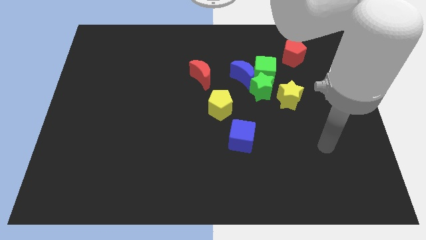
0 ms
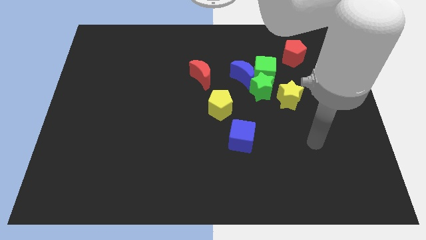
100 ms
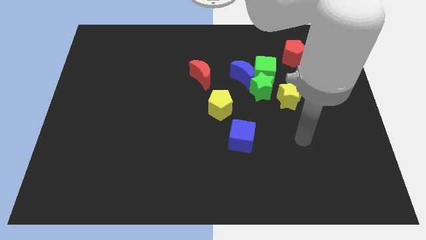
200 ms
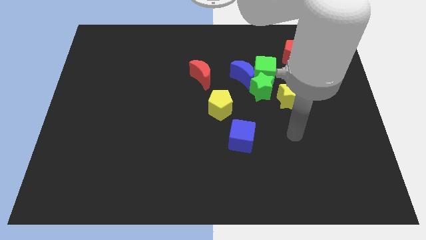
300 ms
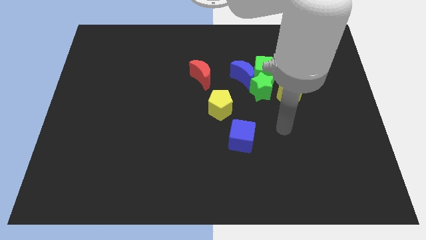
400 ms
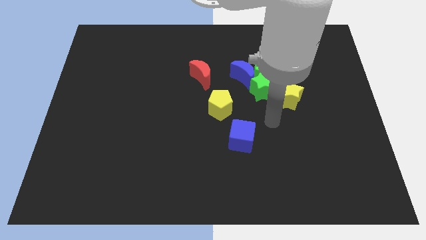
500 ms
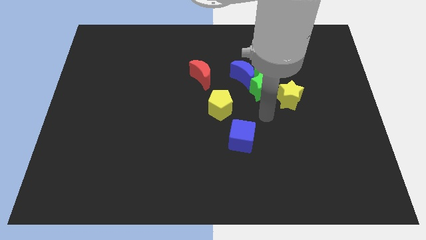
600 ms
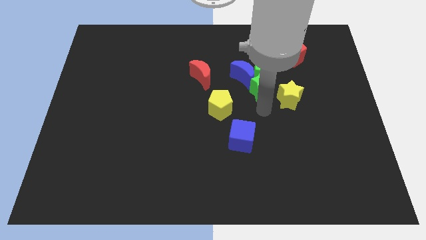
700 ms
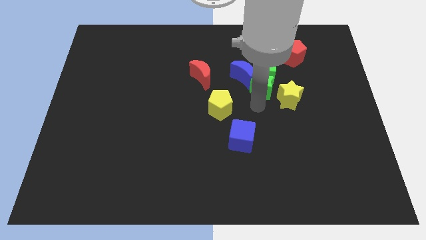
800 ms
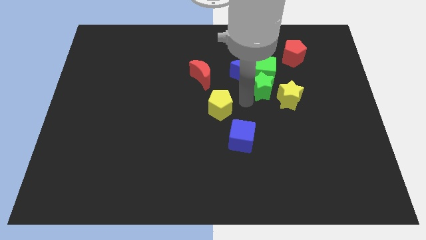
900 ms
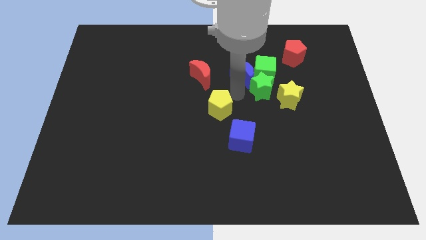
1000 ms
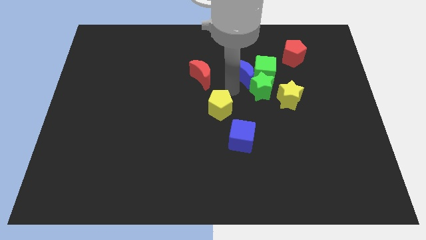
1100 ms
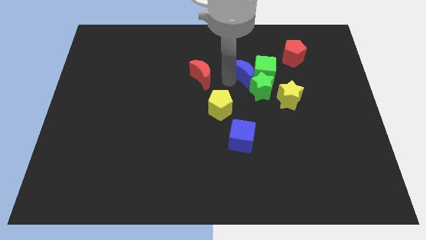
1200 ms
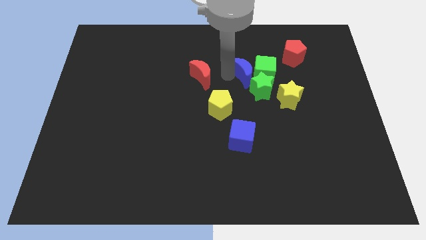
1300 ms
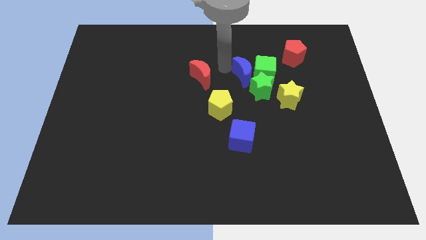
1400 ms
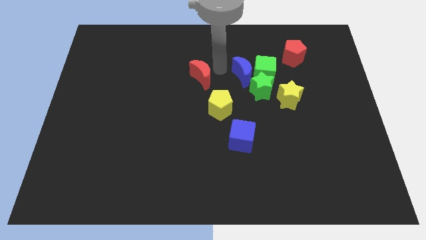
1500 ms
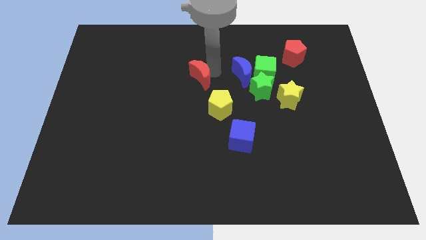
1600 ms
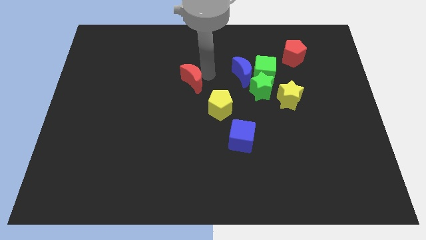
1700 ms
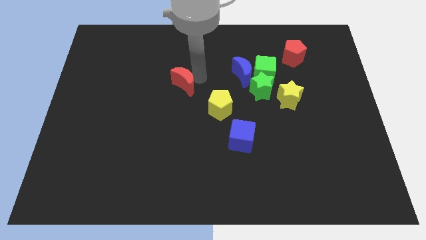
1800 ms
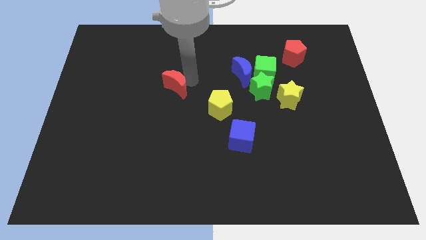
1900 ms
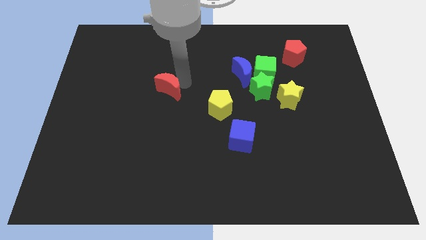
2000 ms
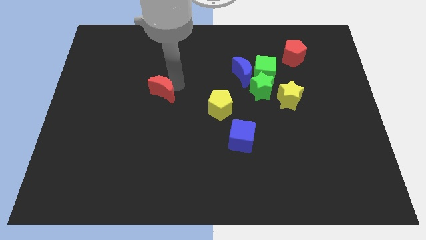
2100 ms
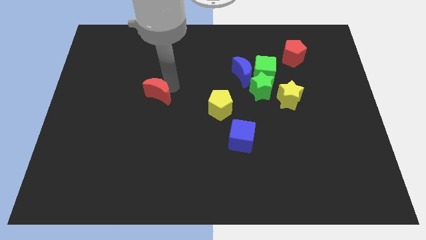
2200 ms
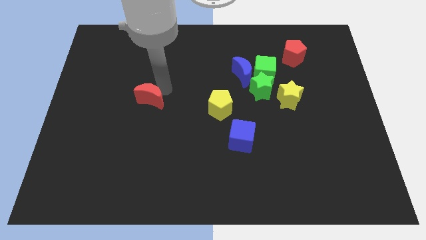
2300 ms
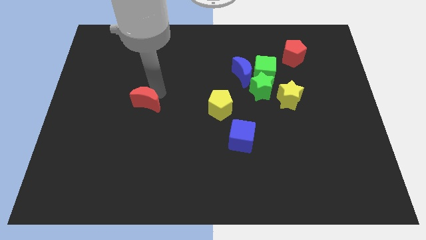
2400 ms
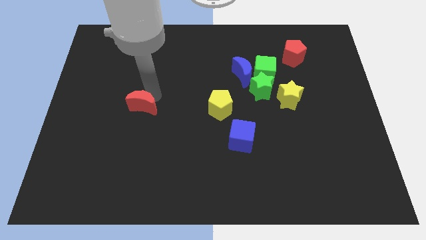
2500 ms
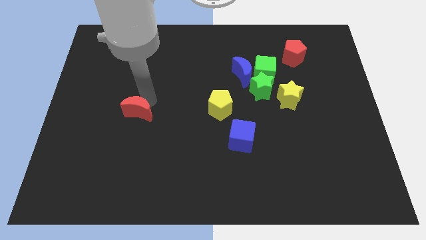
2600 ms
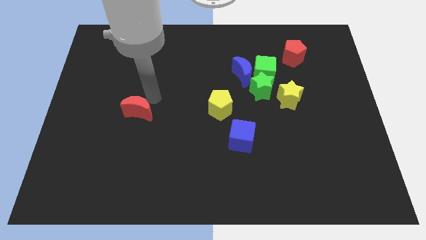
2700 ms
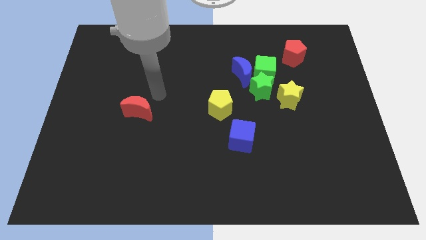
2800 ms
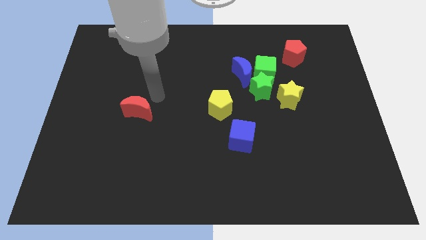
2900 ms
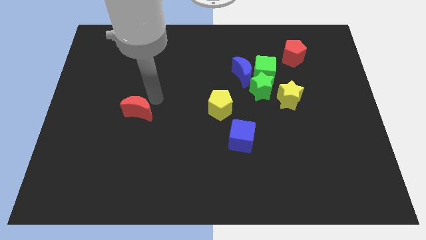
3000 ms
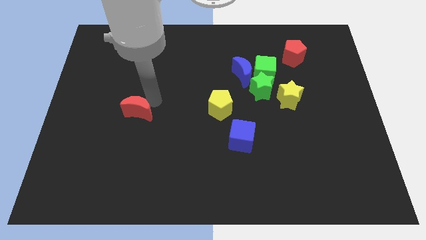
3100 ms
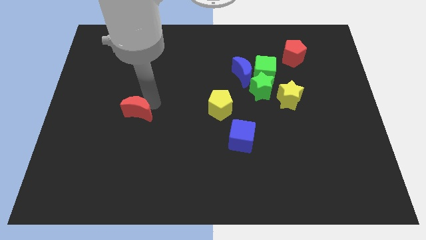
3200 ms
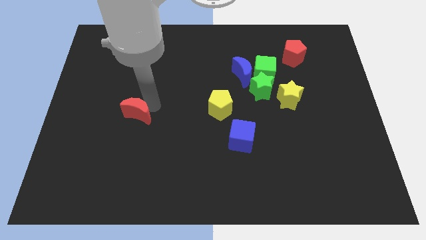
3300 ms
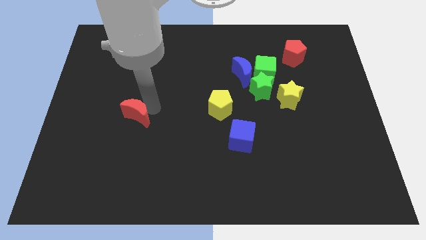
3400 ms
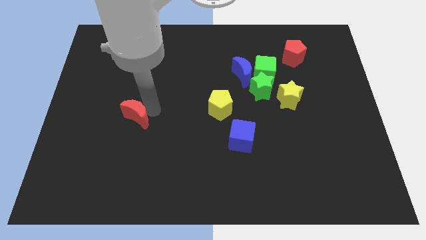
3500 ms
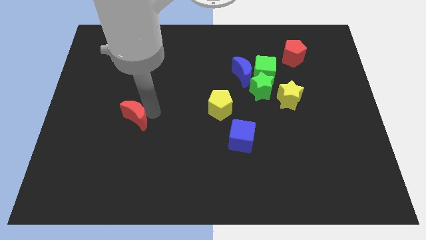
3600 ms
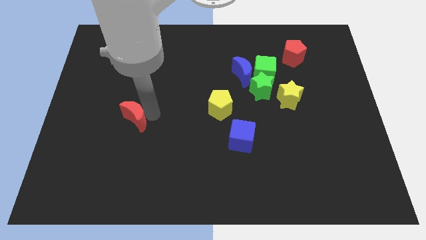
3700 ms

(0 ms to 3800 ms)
slide the red moon downwards and then to the left

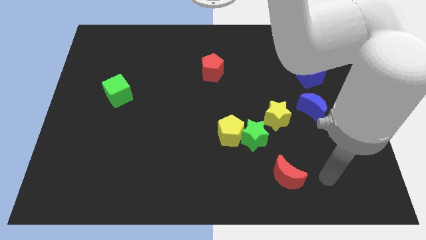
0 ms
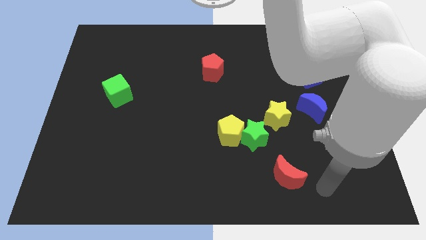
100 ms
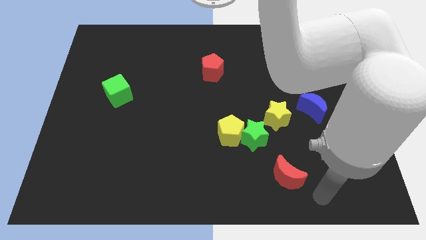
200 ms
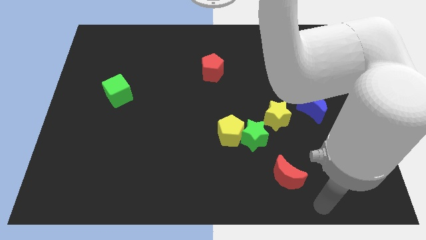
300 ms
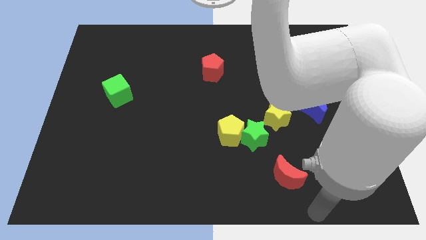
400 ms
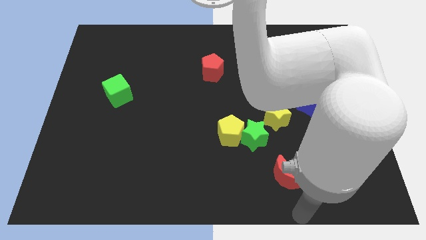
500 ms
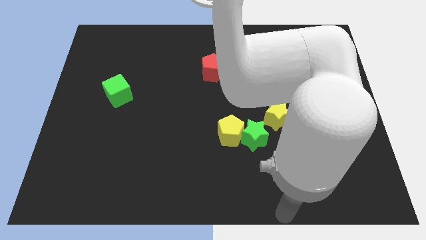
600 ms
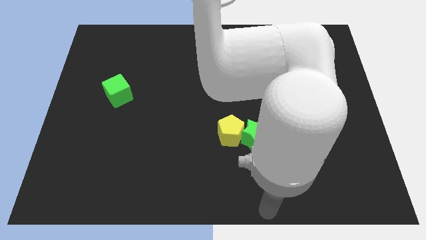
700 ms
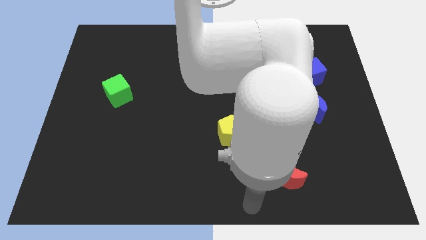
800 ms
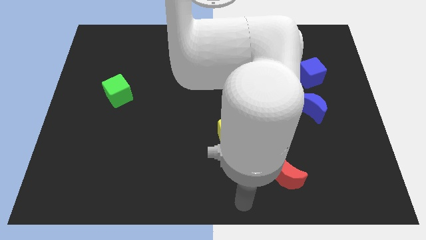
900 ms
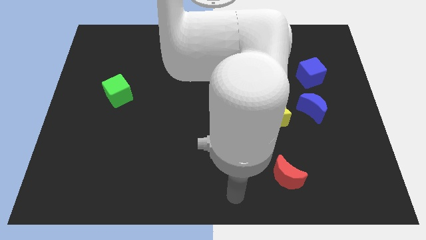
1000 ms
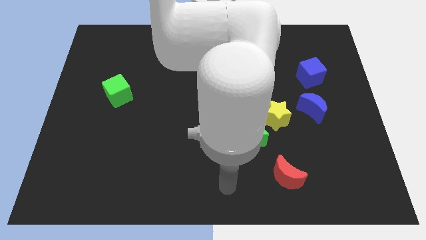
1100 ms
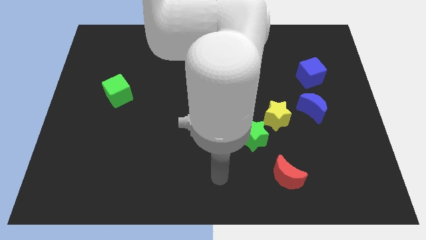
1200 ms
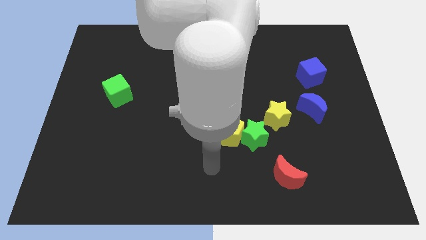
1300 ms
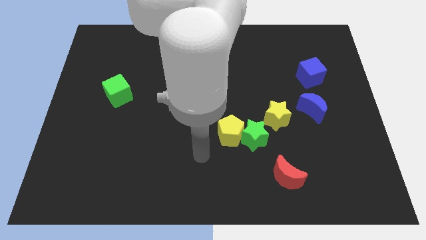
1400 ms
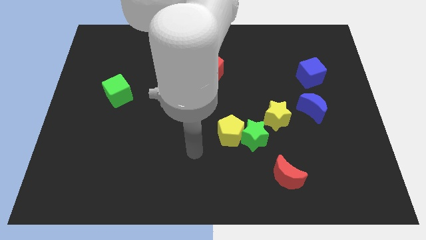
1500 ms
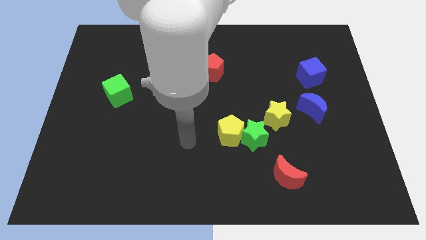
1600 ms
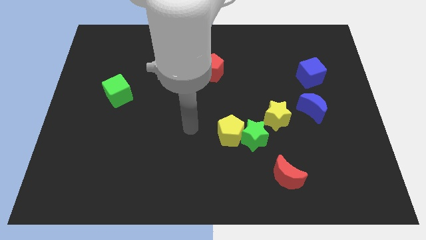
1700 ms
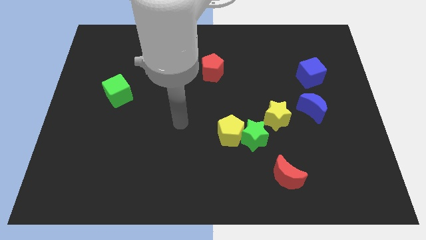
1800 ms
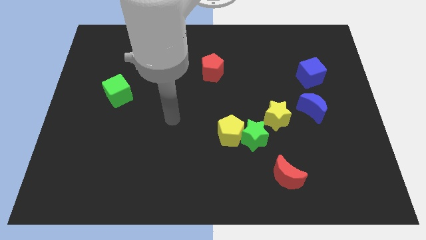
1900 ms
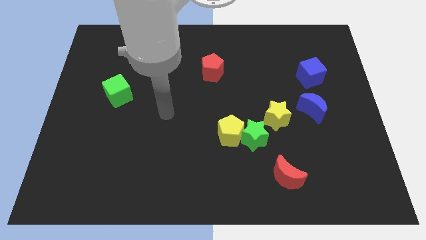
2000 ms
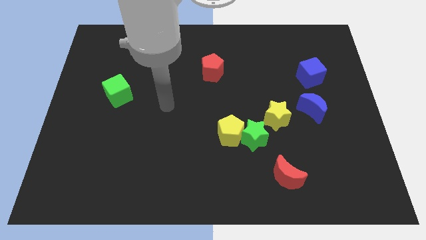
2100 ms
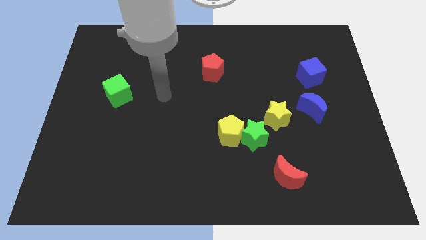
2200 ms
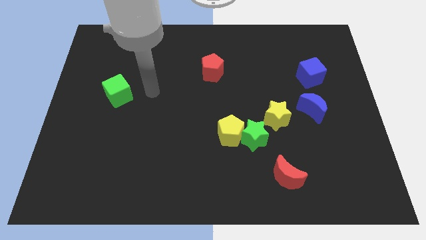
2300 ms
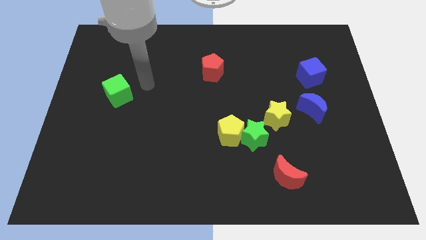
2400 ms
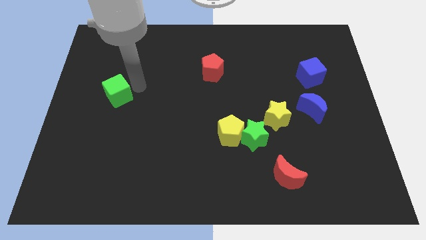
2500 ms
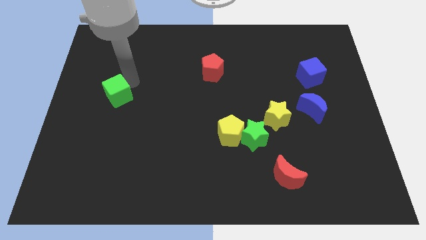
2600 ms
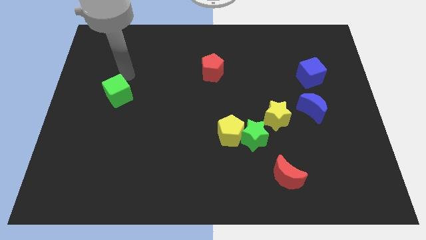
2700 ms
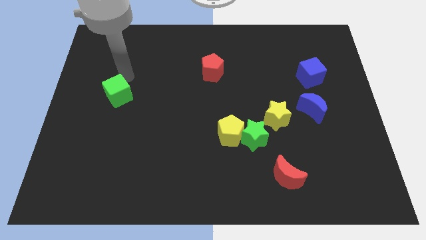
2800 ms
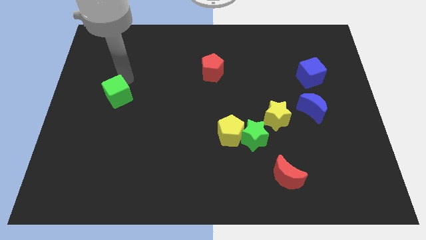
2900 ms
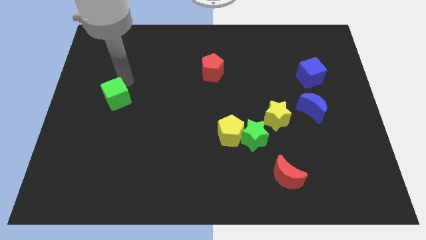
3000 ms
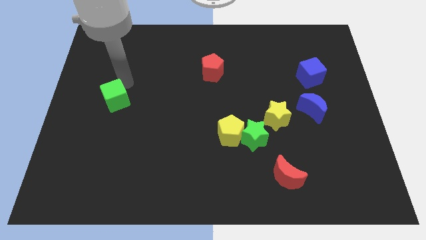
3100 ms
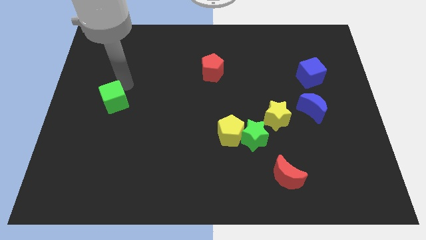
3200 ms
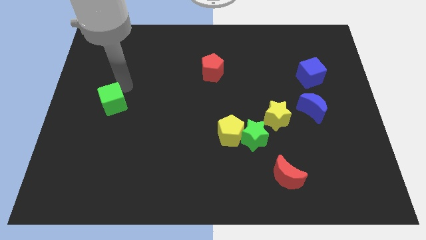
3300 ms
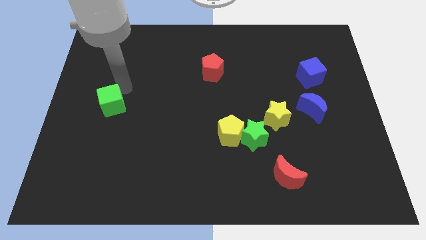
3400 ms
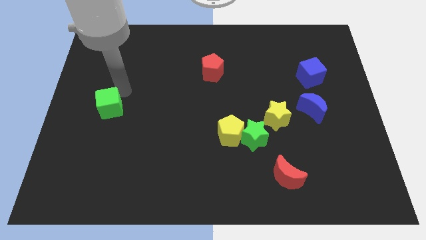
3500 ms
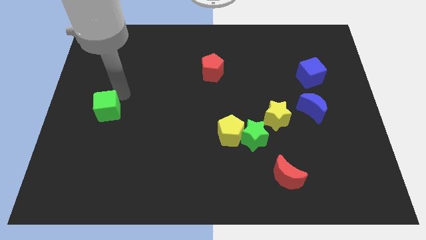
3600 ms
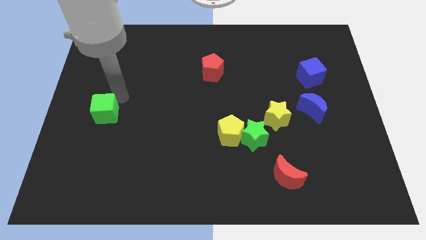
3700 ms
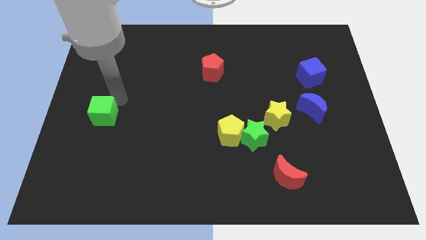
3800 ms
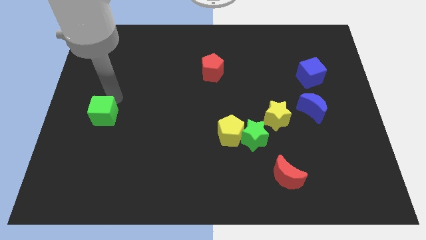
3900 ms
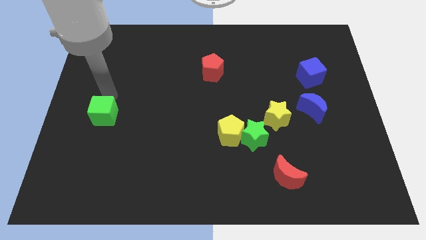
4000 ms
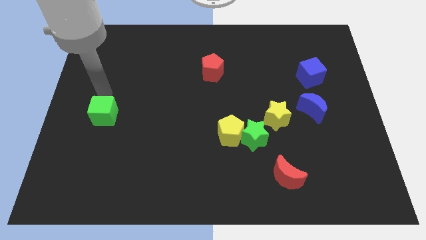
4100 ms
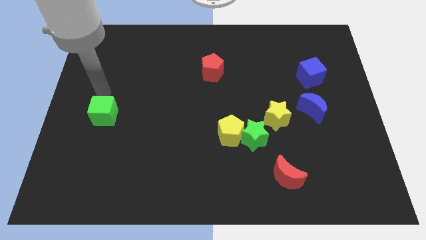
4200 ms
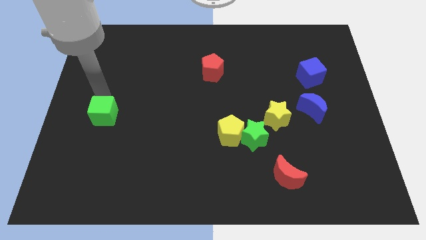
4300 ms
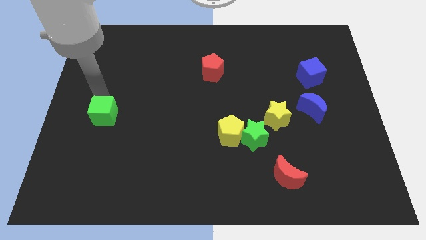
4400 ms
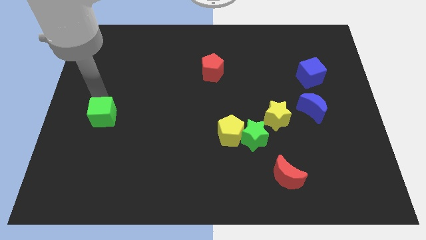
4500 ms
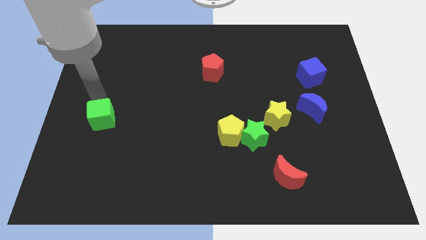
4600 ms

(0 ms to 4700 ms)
move the green cube a little bit down
